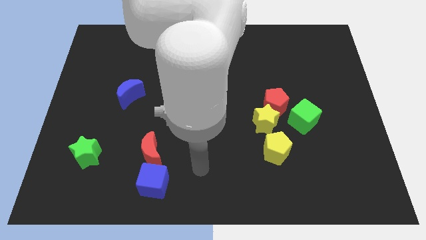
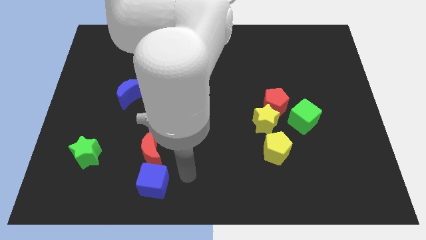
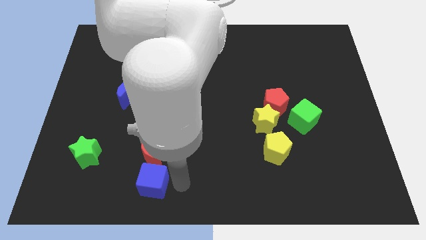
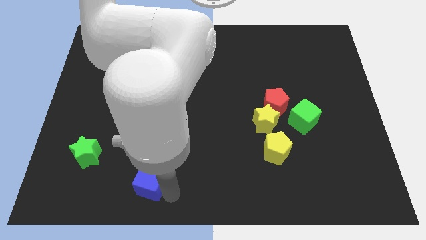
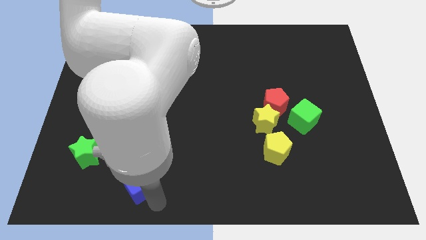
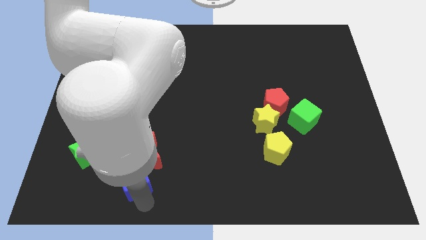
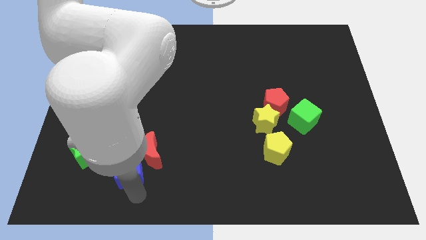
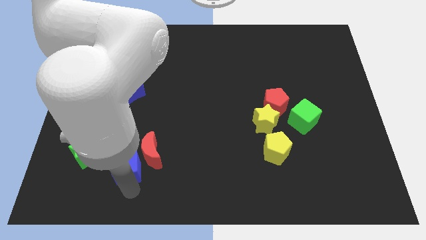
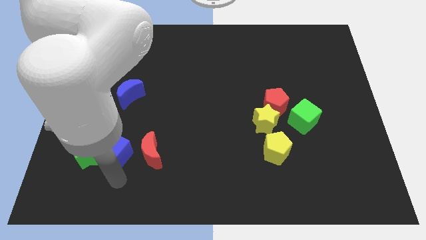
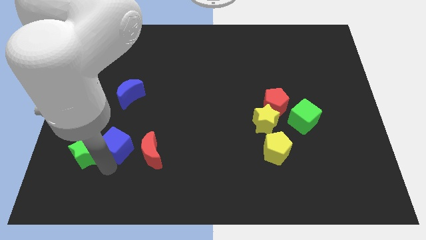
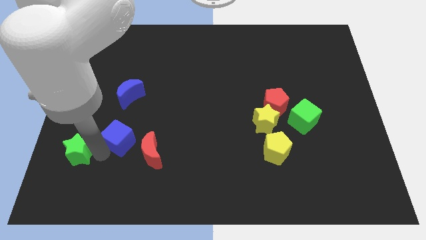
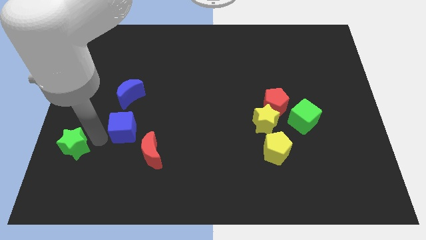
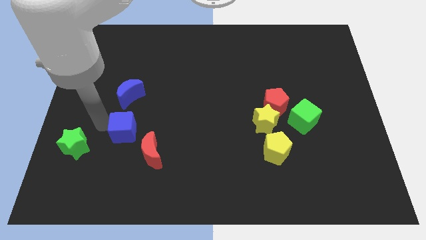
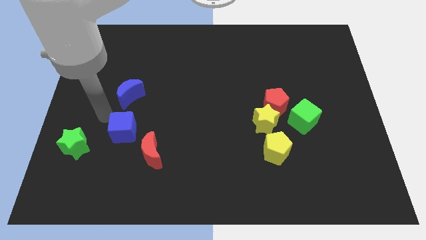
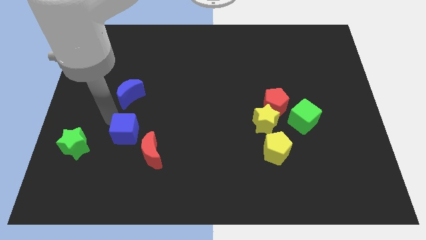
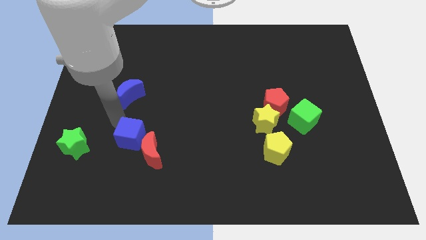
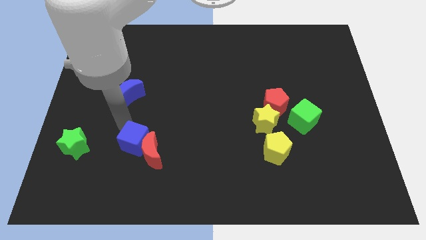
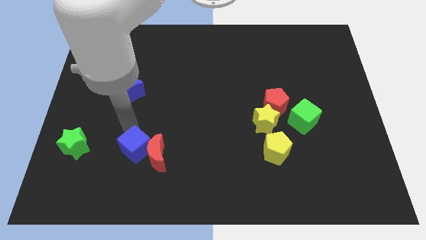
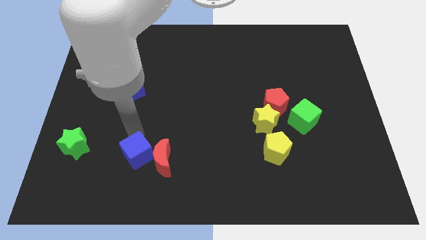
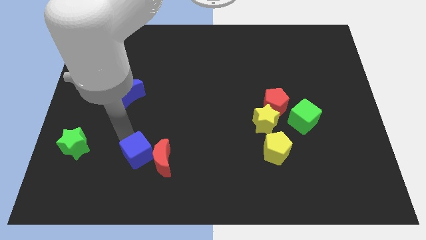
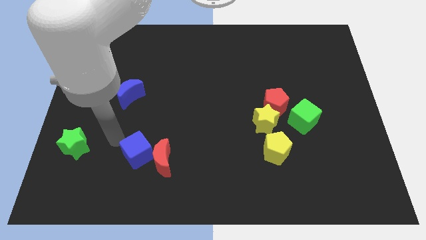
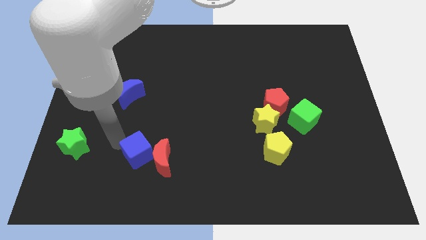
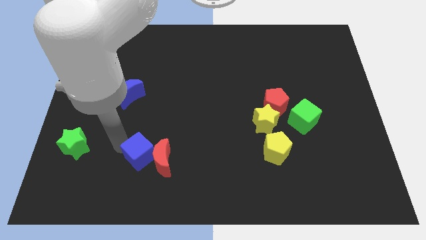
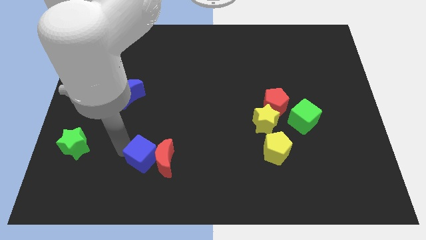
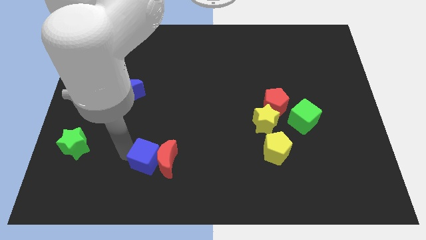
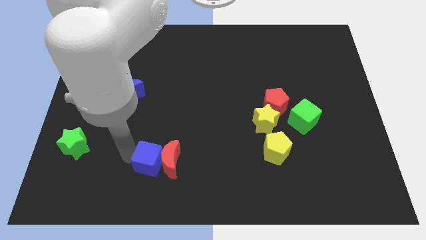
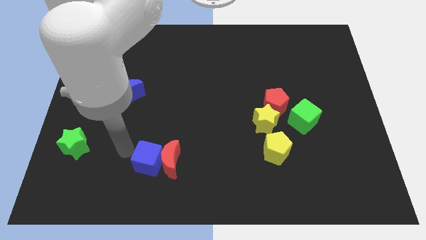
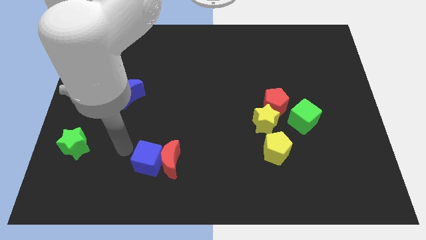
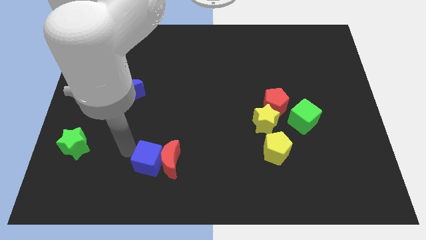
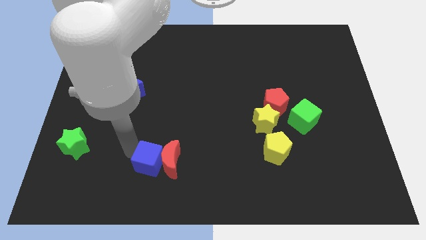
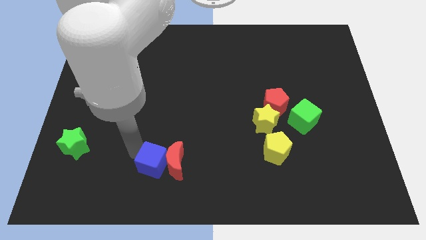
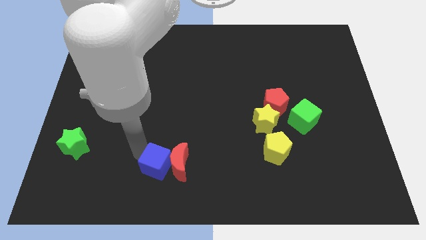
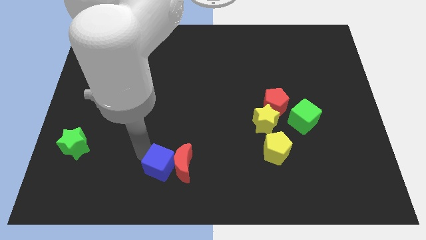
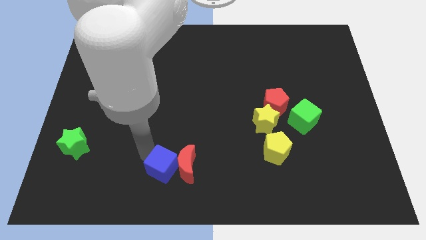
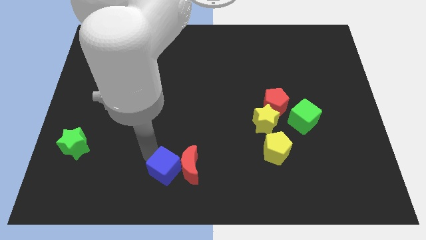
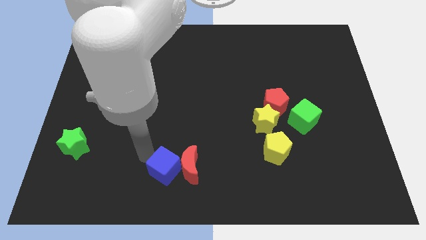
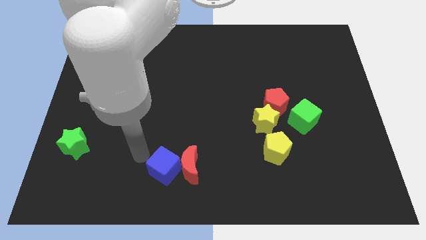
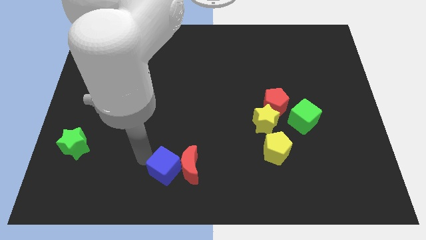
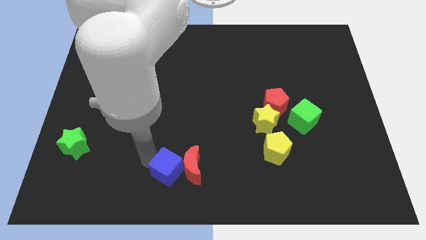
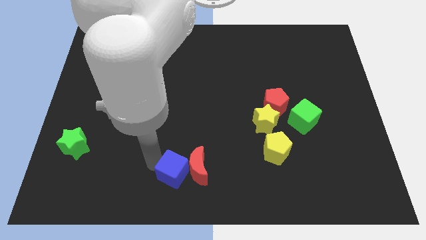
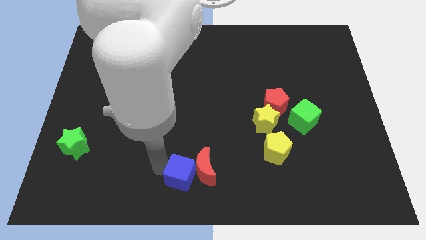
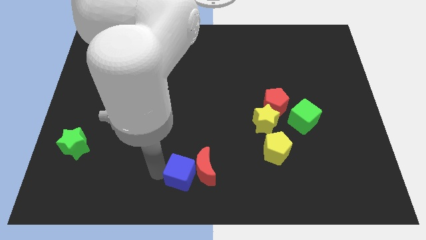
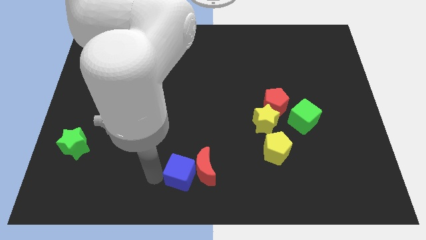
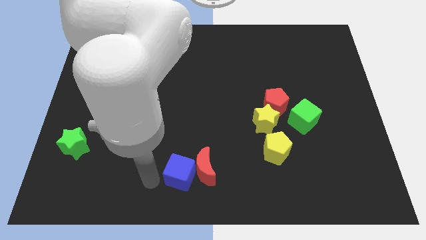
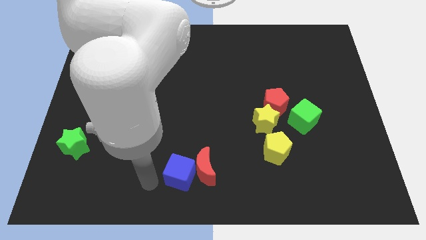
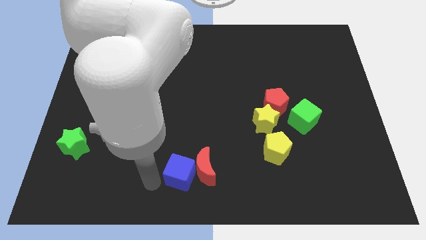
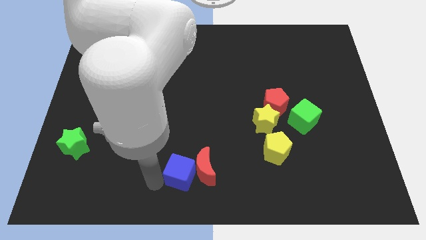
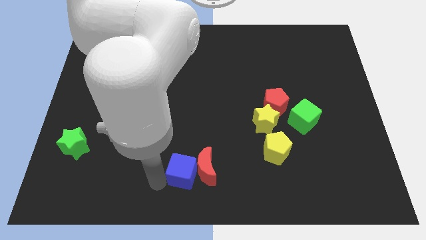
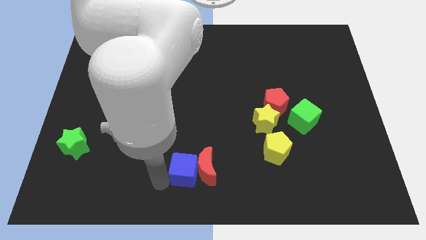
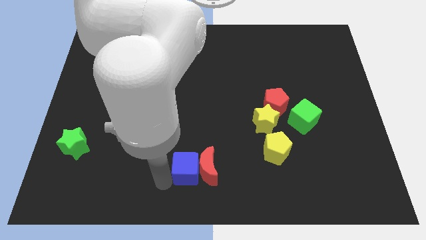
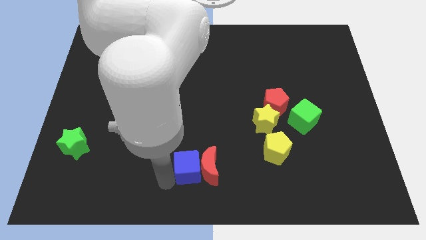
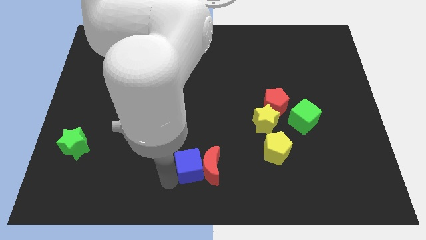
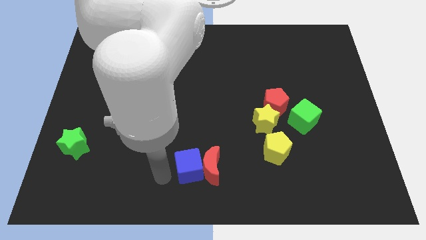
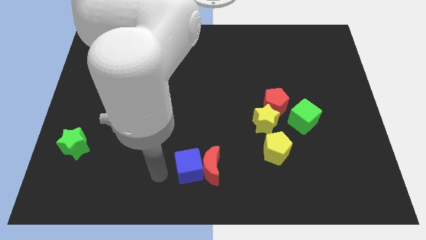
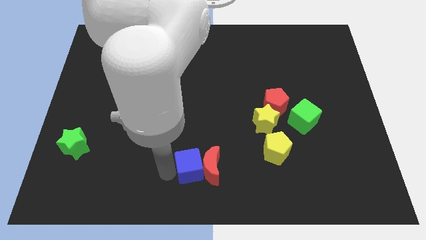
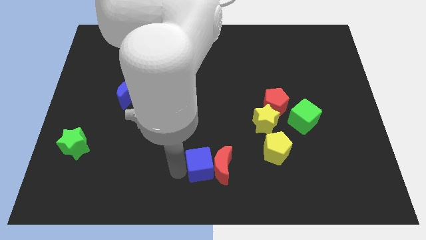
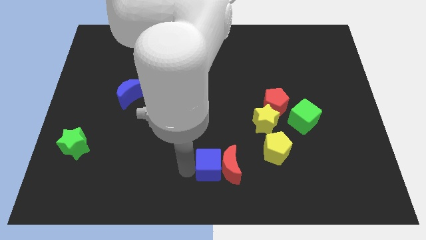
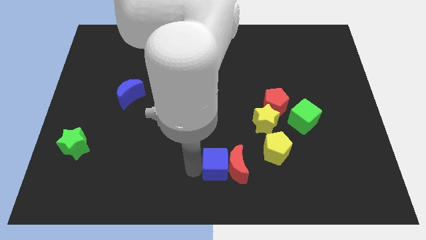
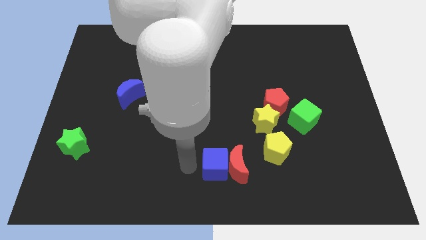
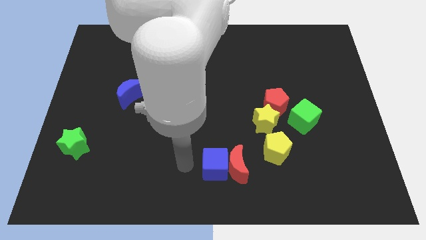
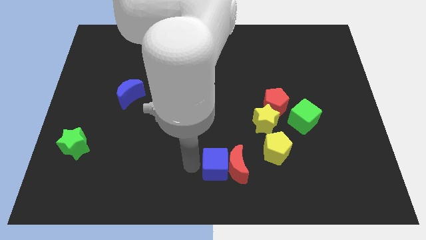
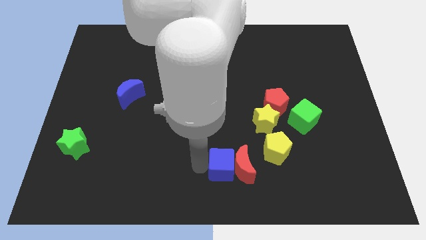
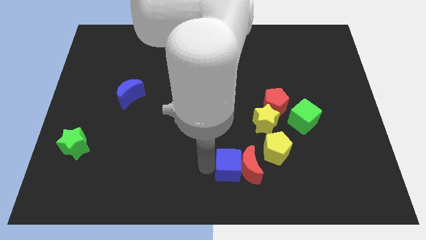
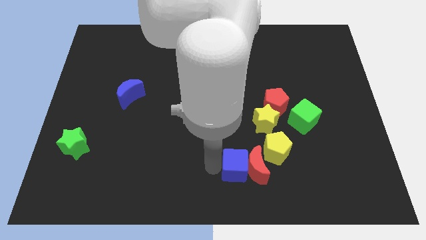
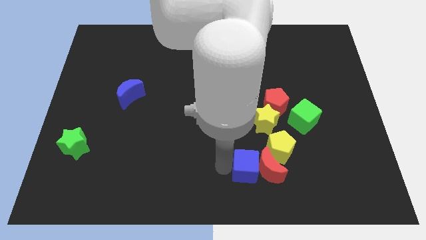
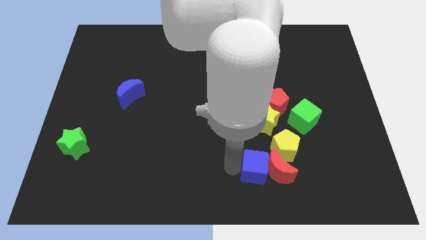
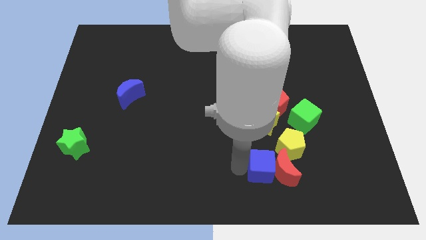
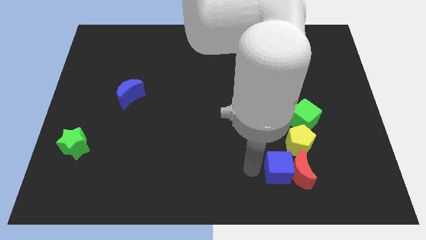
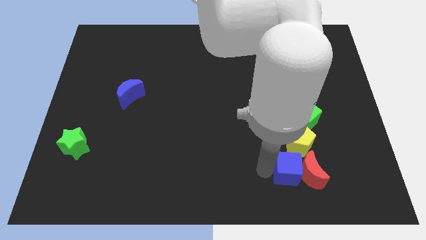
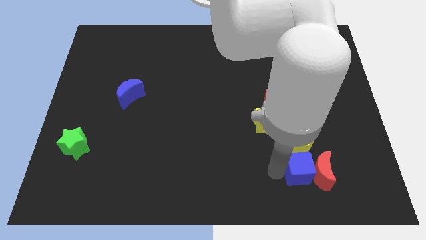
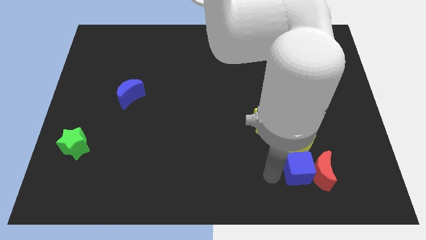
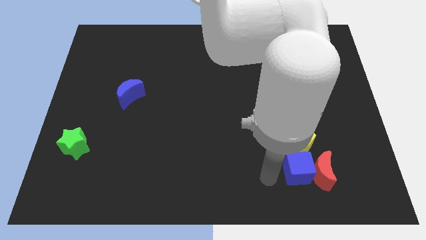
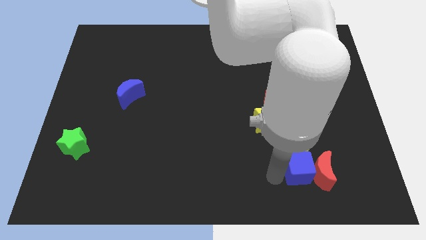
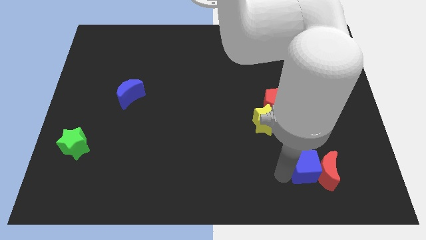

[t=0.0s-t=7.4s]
move the blue cube to the bottom right of the yellow pentagon

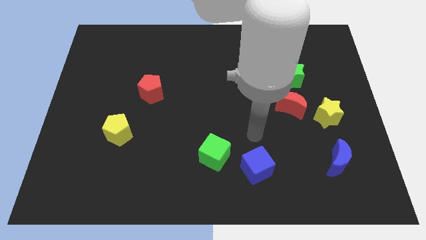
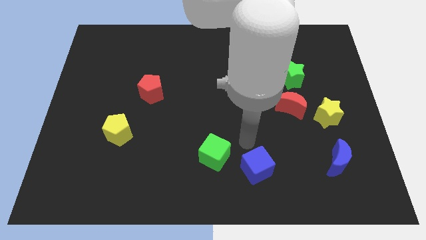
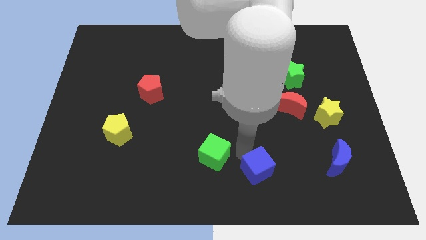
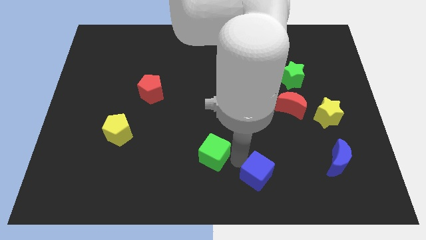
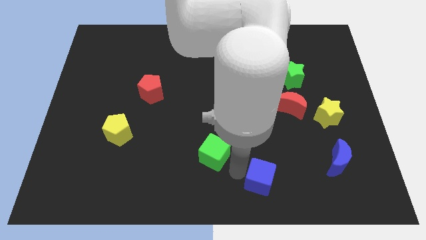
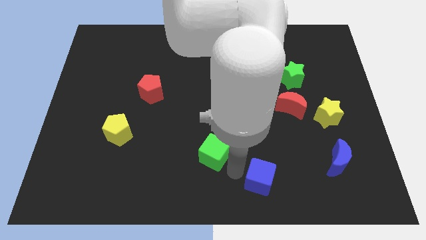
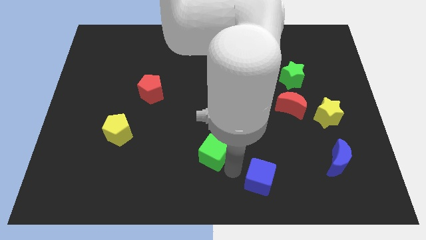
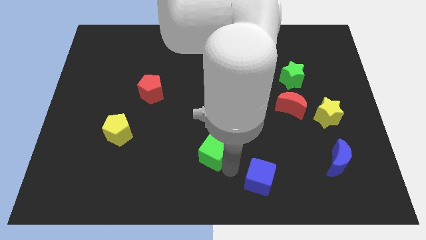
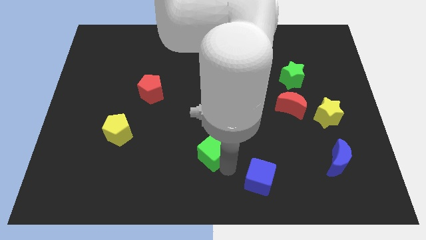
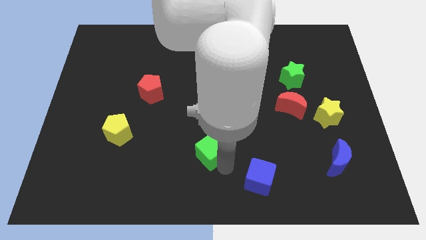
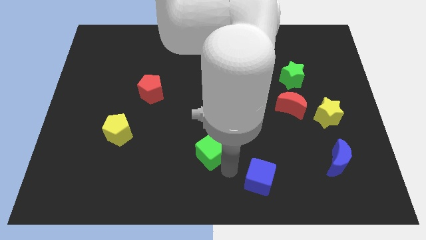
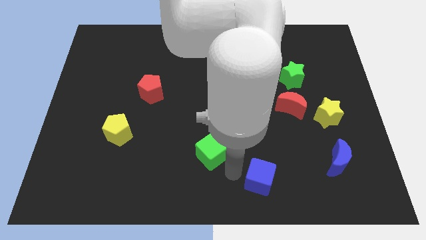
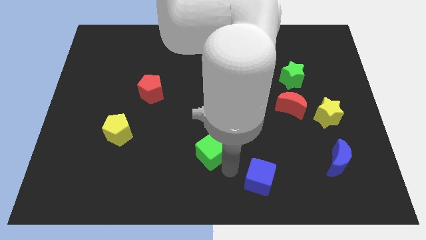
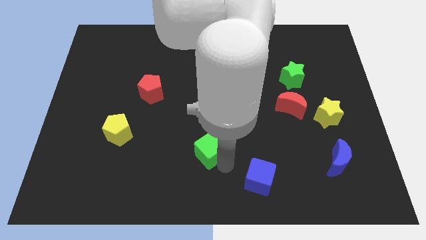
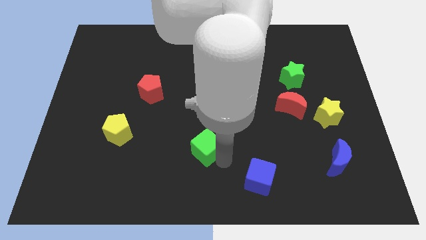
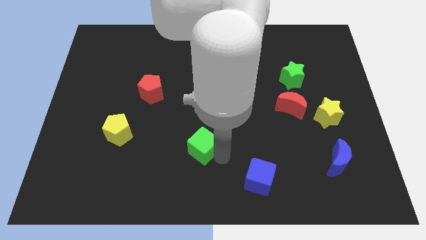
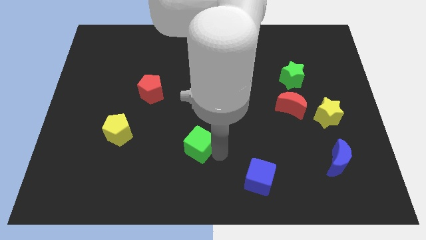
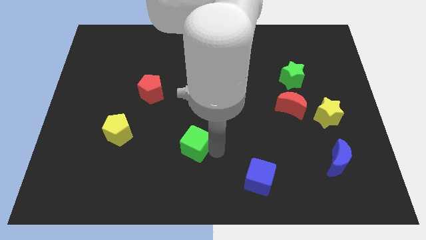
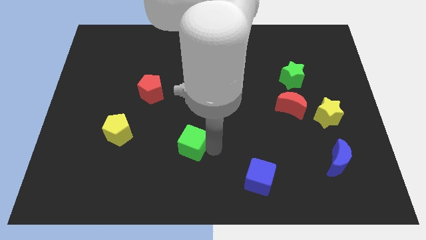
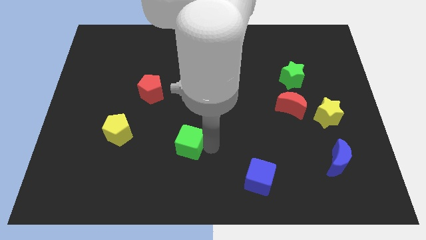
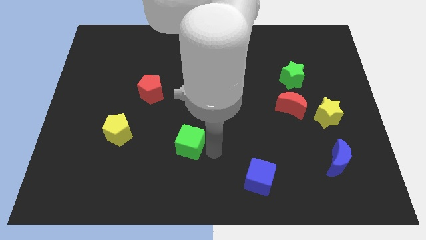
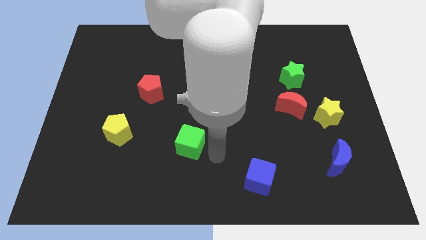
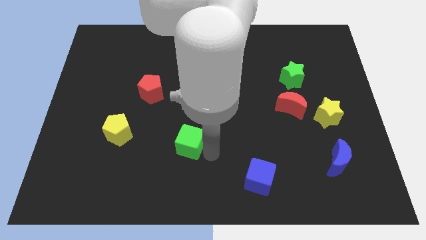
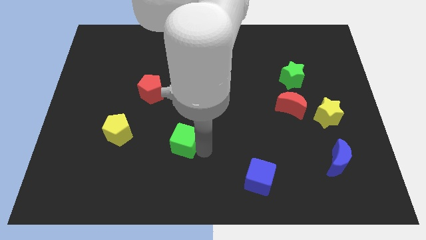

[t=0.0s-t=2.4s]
slide the green cube to the right of the yellow pentagon
